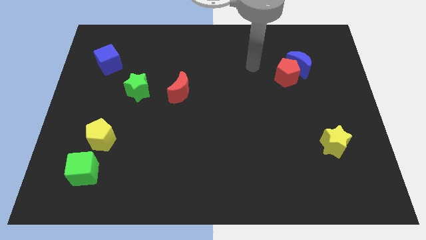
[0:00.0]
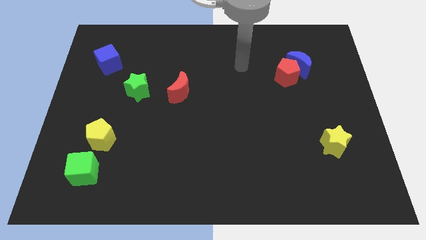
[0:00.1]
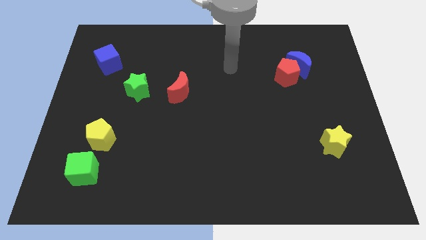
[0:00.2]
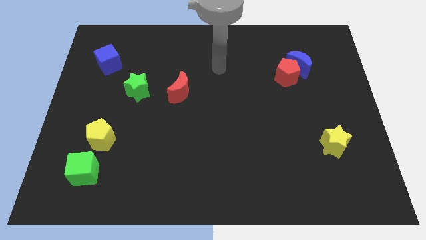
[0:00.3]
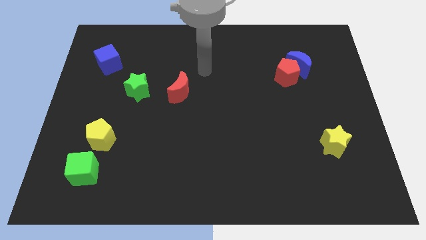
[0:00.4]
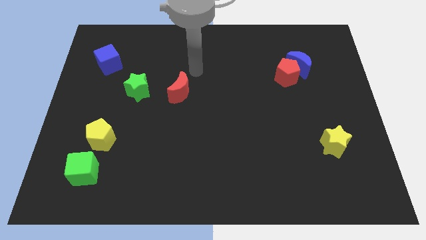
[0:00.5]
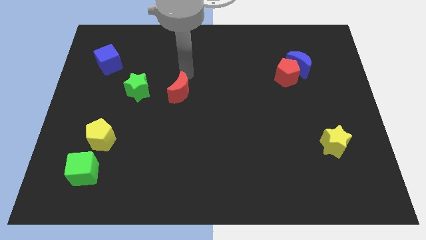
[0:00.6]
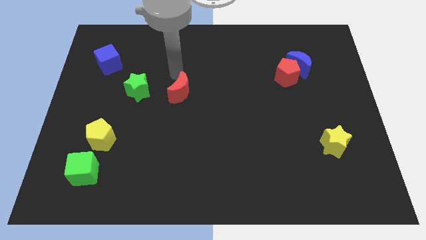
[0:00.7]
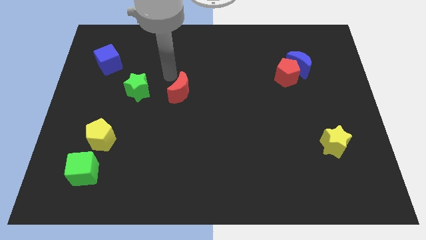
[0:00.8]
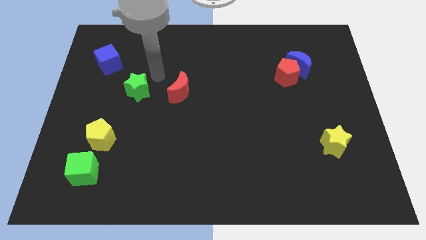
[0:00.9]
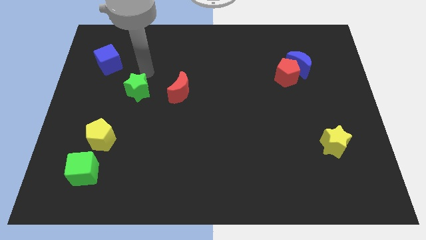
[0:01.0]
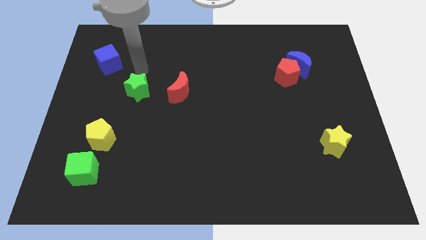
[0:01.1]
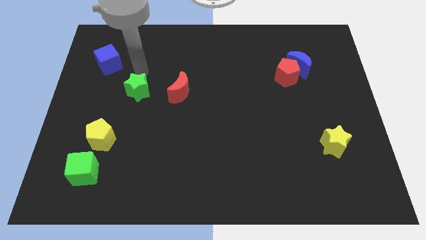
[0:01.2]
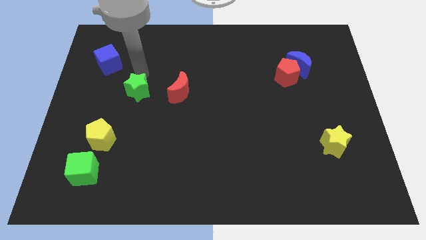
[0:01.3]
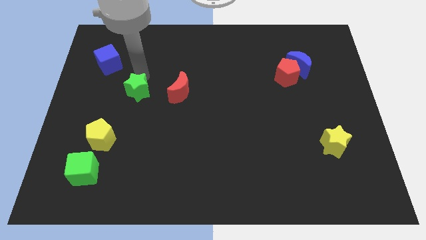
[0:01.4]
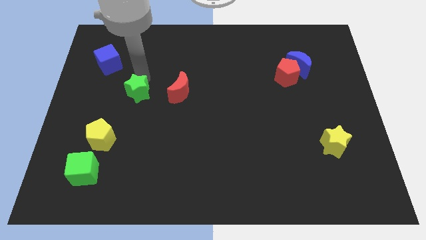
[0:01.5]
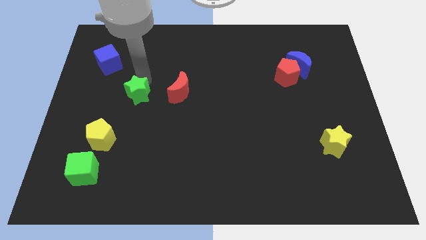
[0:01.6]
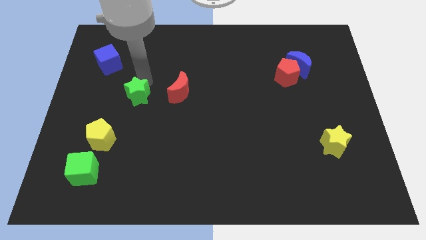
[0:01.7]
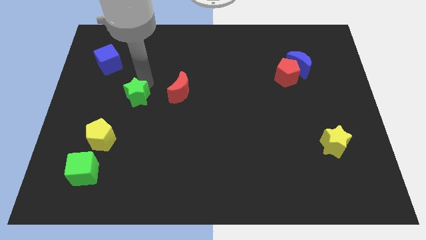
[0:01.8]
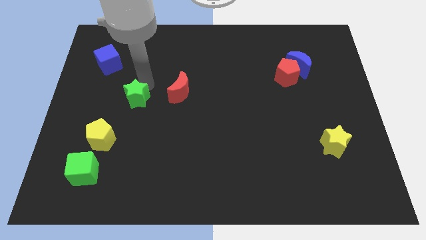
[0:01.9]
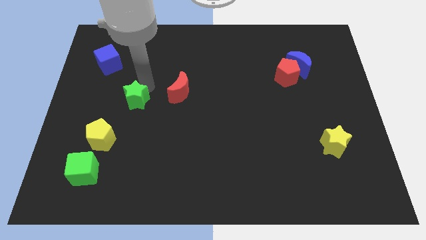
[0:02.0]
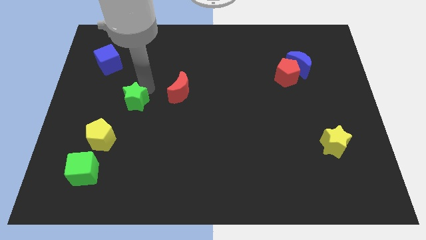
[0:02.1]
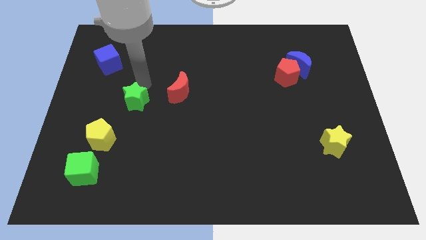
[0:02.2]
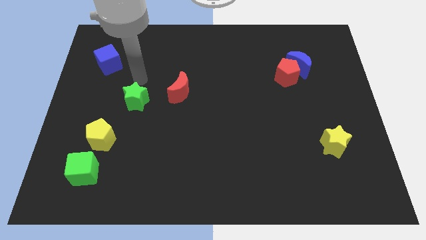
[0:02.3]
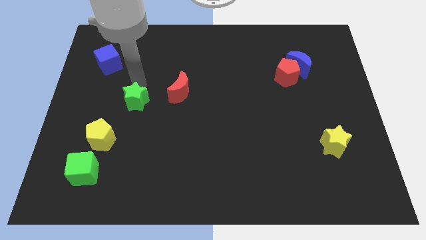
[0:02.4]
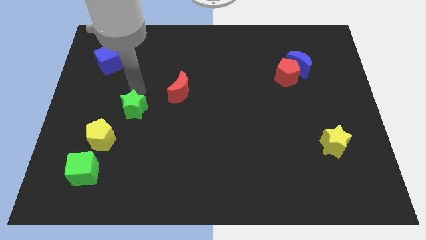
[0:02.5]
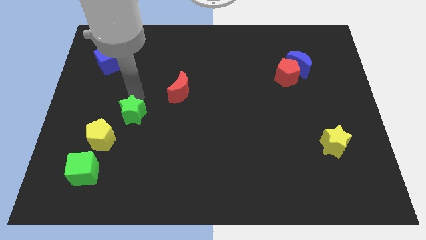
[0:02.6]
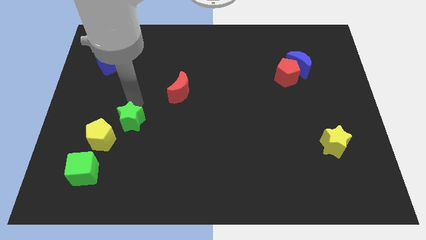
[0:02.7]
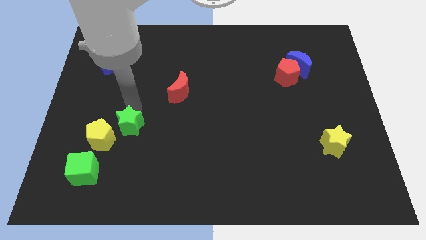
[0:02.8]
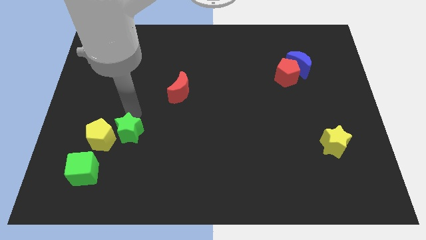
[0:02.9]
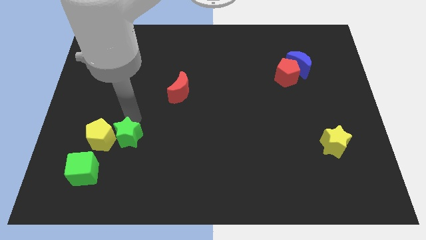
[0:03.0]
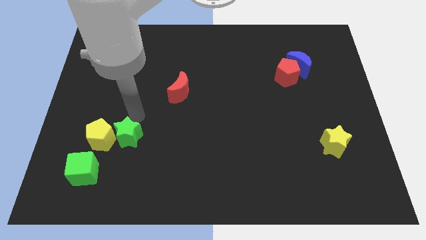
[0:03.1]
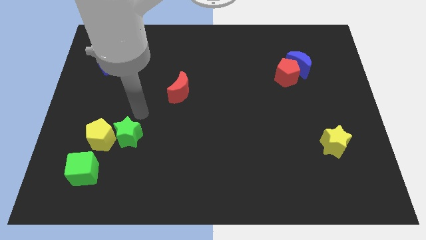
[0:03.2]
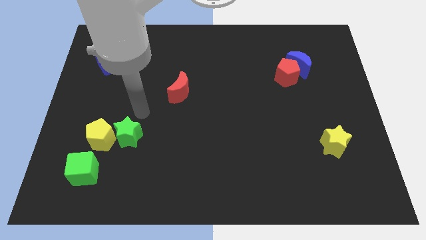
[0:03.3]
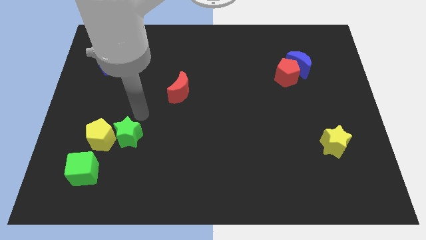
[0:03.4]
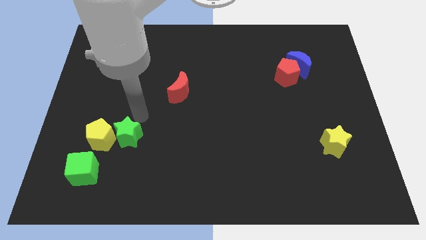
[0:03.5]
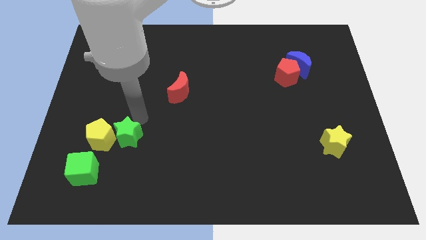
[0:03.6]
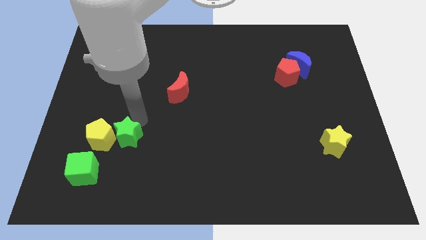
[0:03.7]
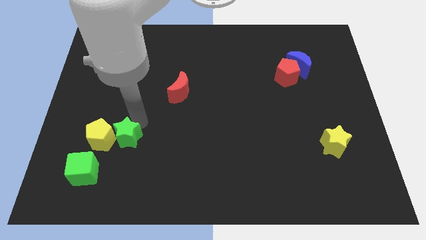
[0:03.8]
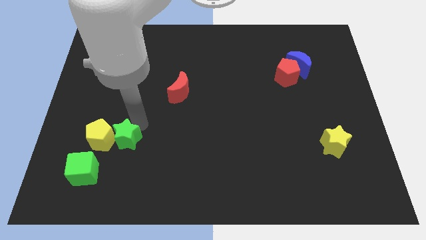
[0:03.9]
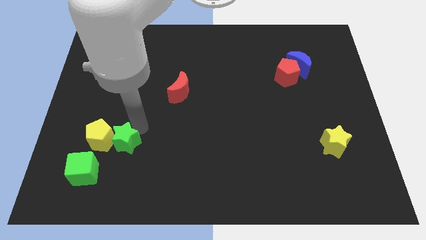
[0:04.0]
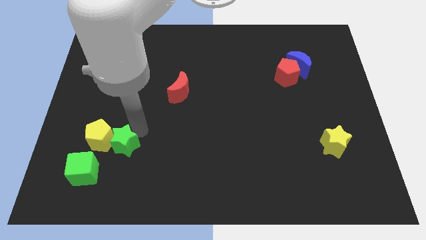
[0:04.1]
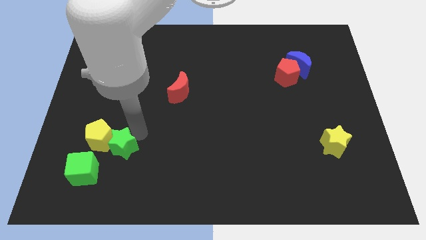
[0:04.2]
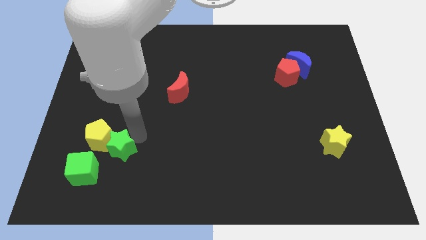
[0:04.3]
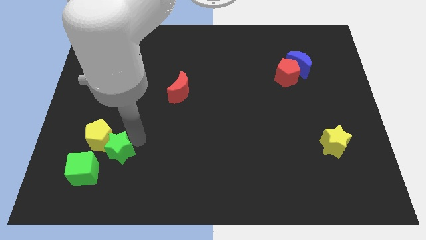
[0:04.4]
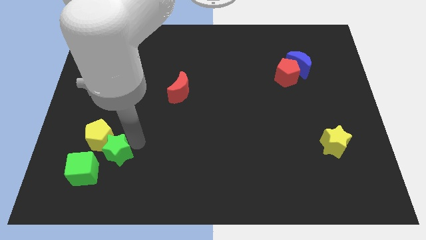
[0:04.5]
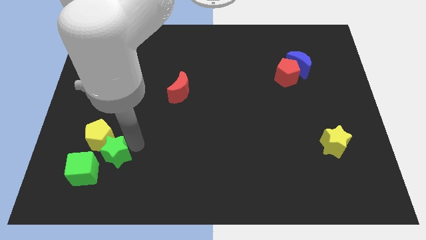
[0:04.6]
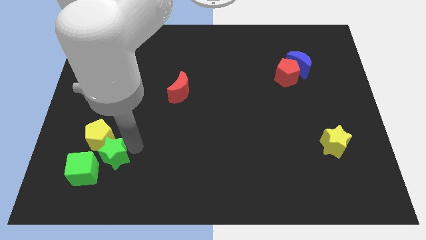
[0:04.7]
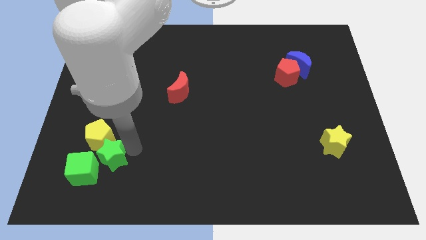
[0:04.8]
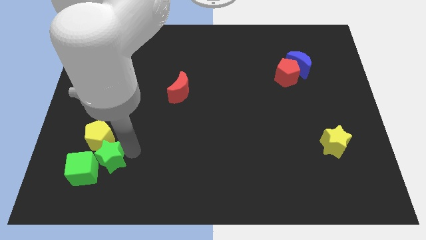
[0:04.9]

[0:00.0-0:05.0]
slide the green star to the green cube

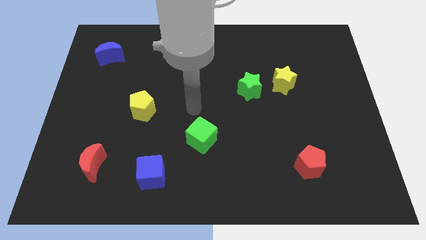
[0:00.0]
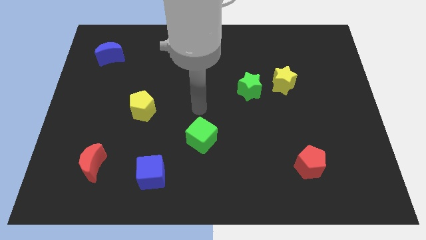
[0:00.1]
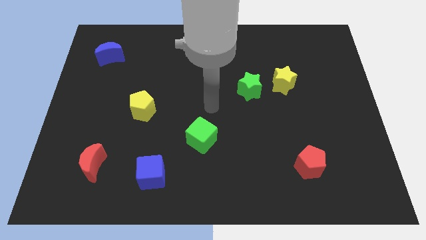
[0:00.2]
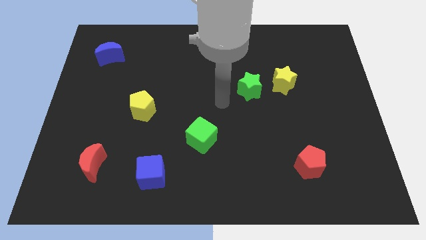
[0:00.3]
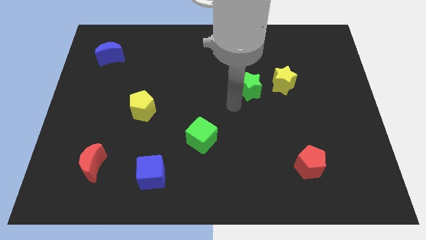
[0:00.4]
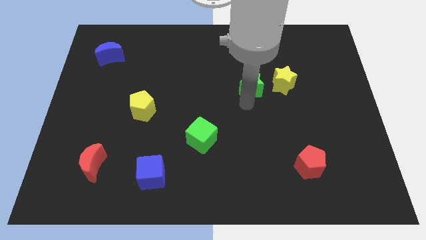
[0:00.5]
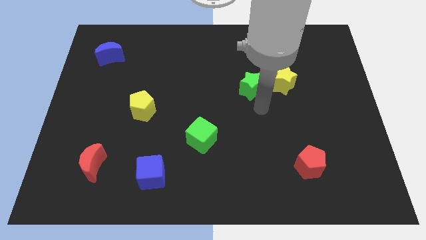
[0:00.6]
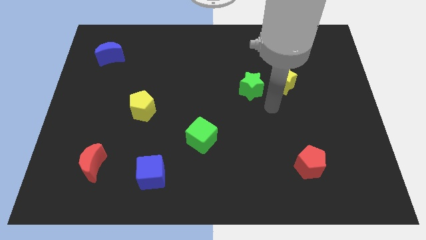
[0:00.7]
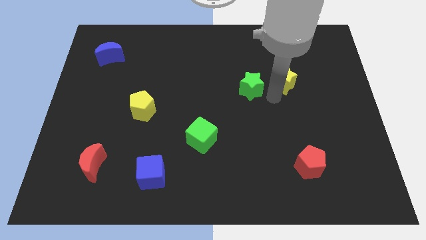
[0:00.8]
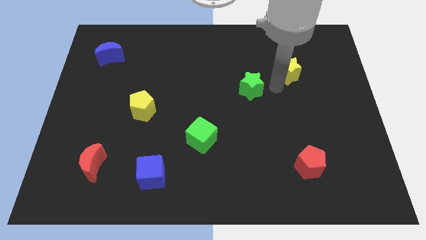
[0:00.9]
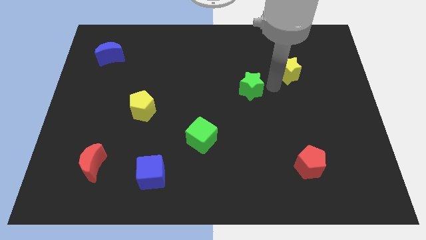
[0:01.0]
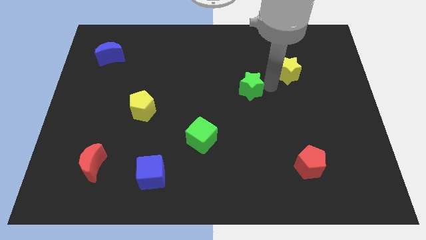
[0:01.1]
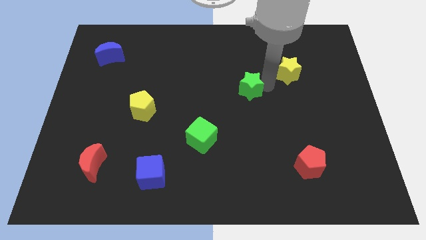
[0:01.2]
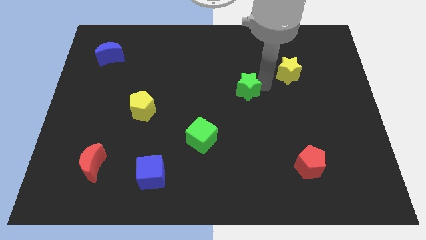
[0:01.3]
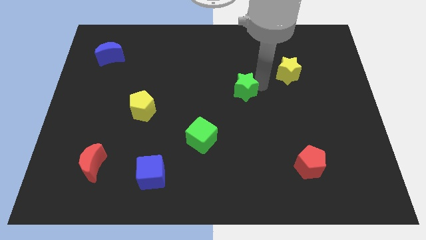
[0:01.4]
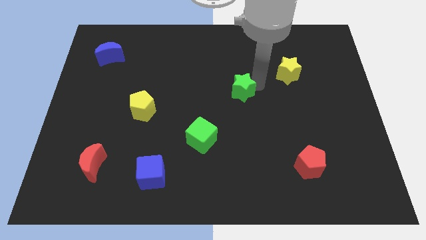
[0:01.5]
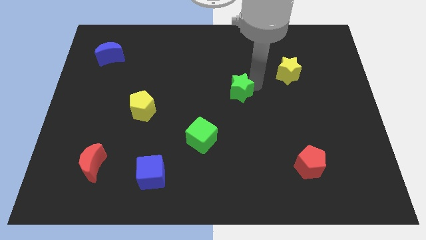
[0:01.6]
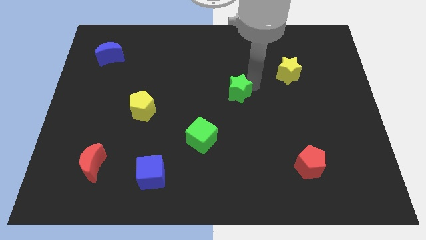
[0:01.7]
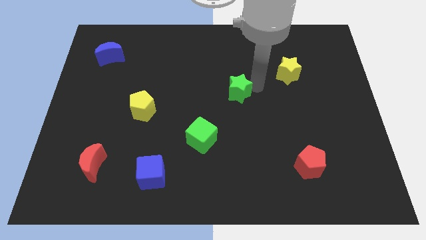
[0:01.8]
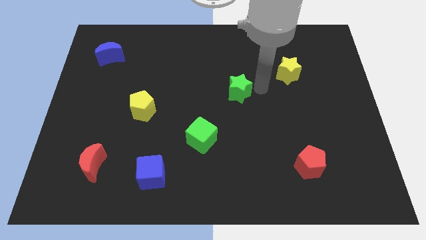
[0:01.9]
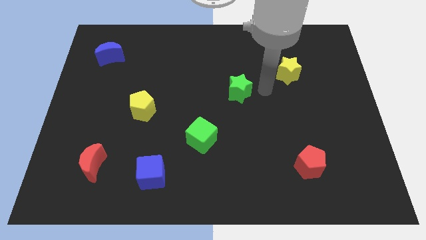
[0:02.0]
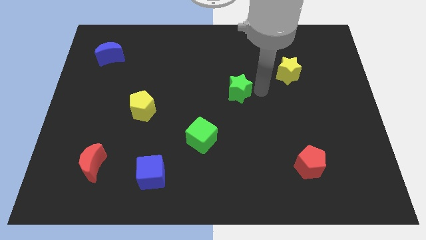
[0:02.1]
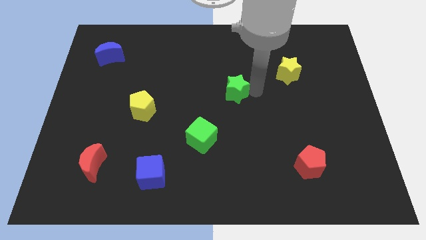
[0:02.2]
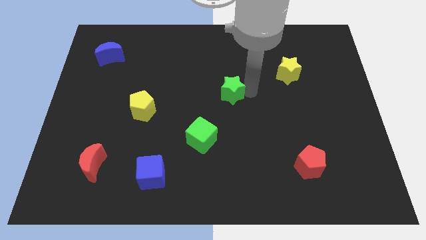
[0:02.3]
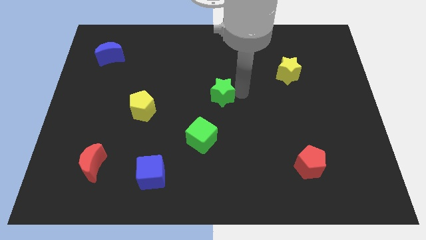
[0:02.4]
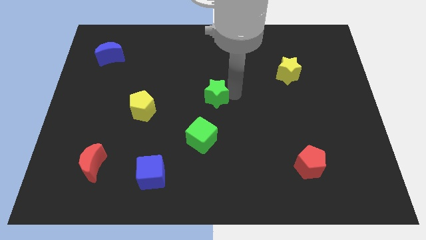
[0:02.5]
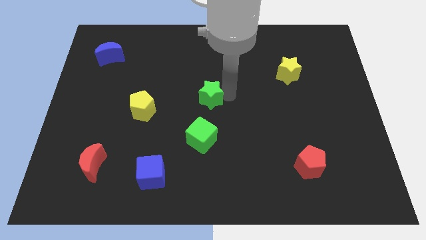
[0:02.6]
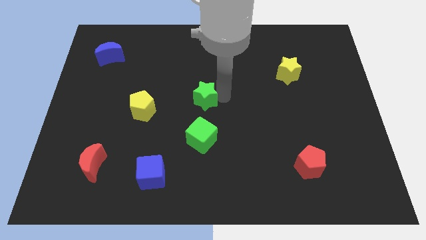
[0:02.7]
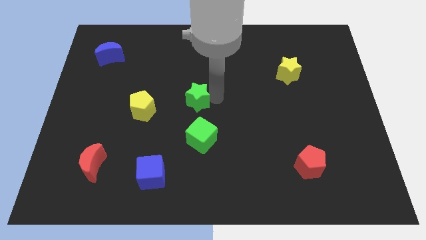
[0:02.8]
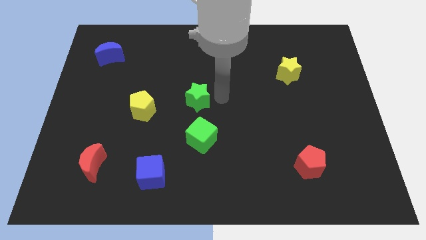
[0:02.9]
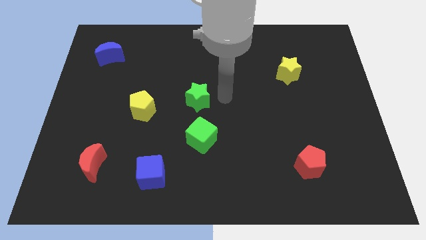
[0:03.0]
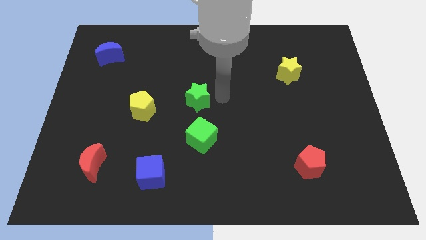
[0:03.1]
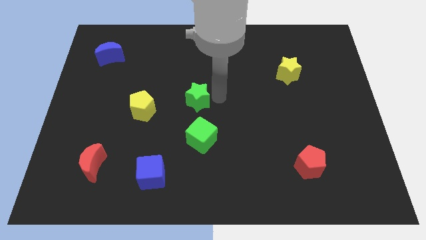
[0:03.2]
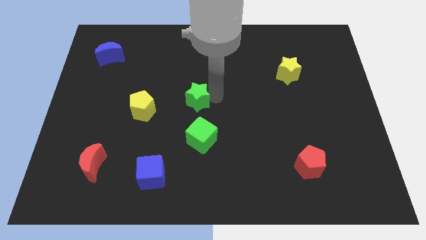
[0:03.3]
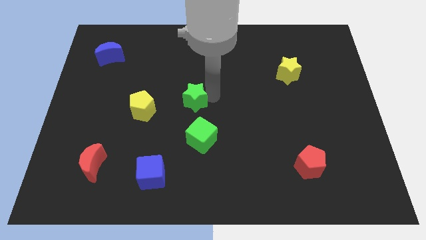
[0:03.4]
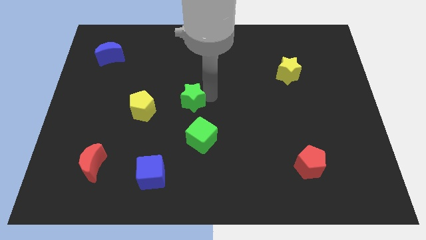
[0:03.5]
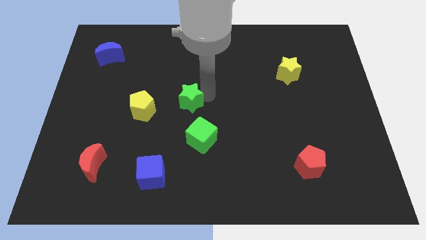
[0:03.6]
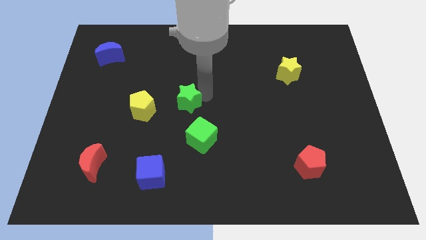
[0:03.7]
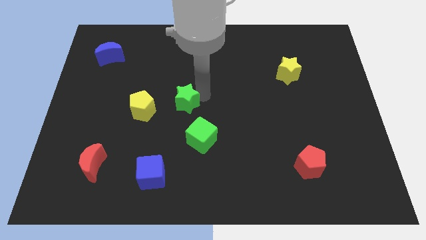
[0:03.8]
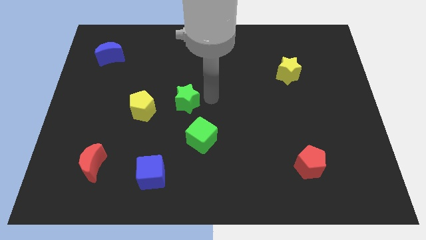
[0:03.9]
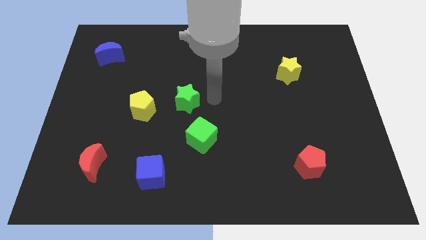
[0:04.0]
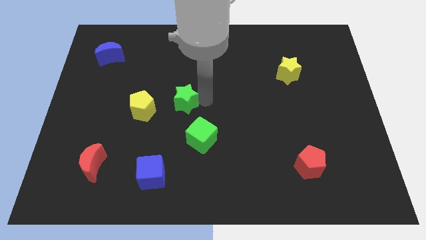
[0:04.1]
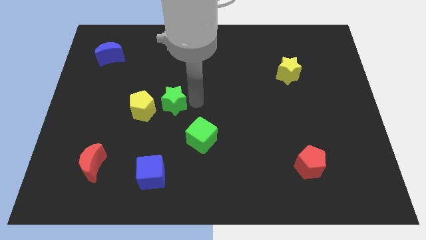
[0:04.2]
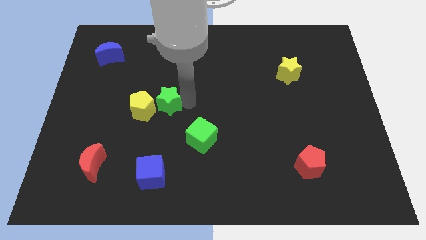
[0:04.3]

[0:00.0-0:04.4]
slide the green star close to the yellow pentagon
